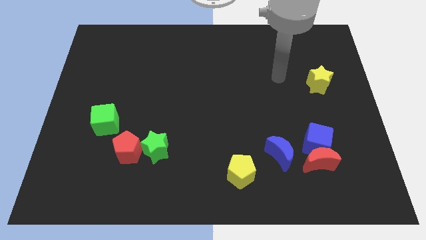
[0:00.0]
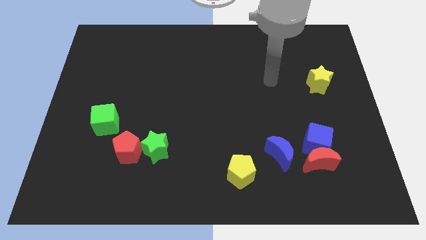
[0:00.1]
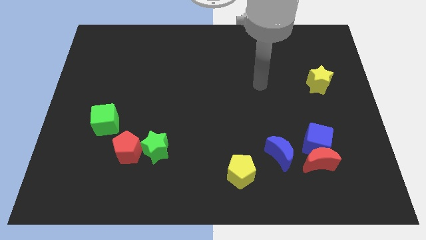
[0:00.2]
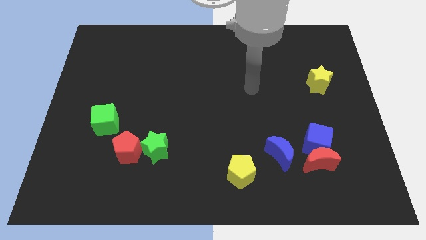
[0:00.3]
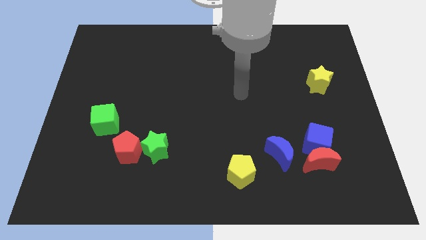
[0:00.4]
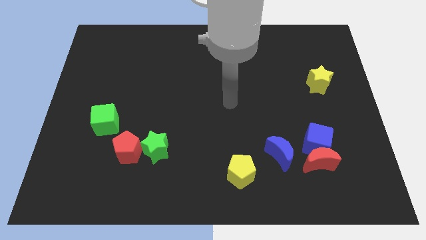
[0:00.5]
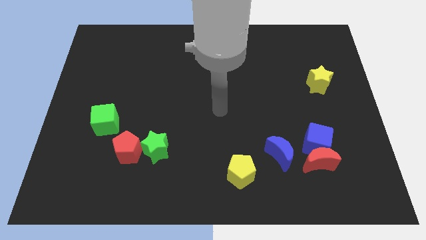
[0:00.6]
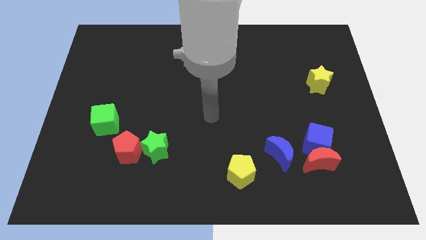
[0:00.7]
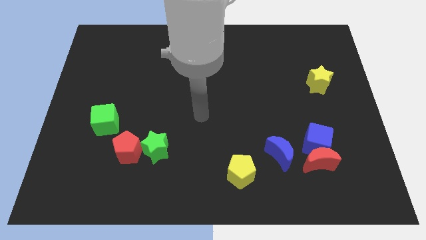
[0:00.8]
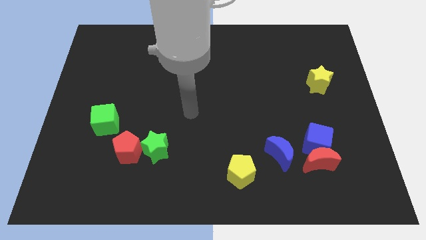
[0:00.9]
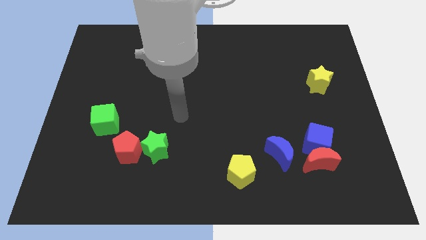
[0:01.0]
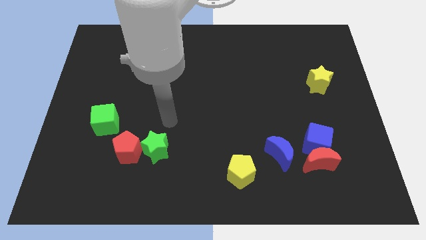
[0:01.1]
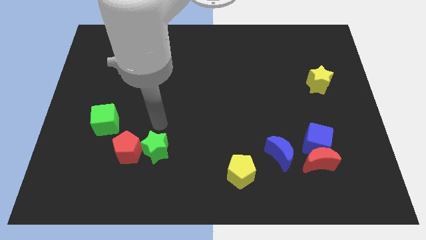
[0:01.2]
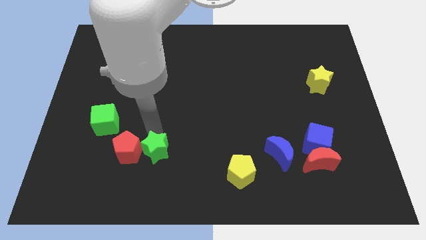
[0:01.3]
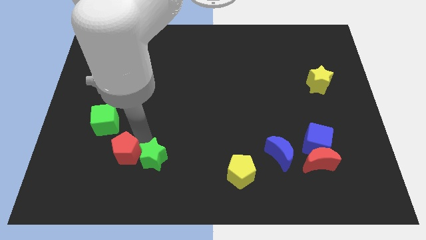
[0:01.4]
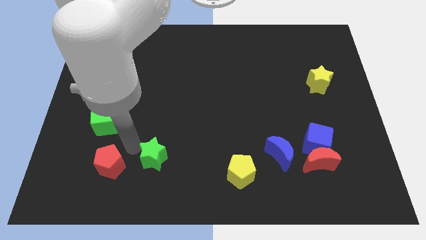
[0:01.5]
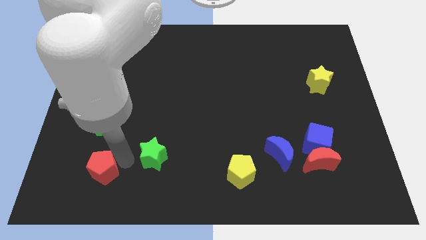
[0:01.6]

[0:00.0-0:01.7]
move the green star away from the red pentagon

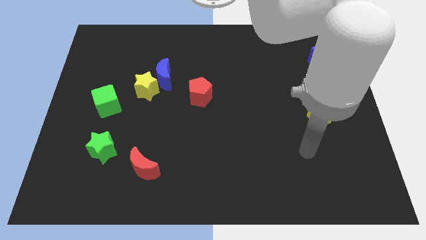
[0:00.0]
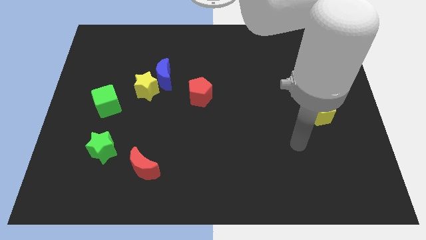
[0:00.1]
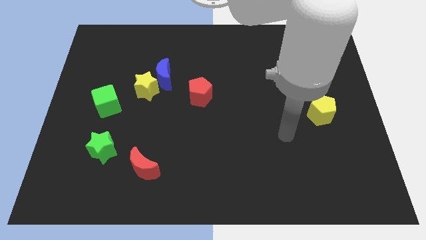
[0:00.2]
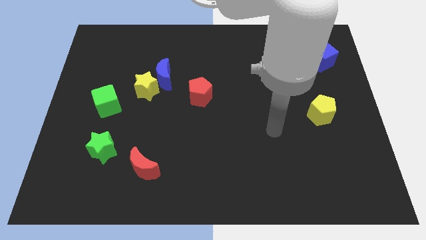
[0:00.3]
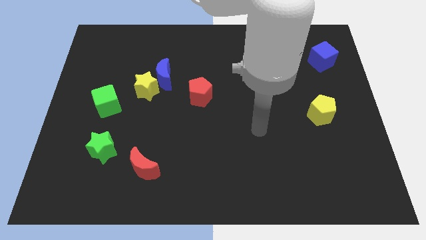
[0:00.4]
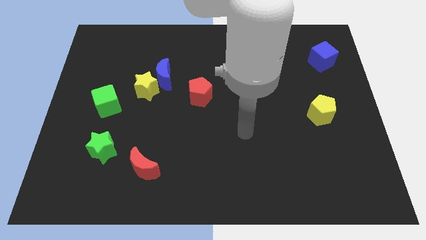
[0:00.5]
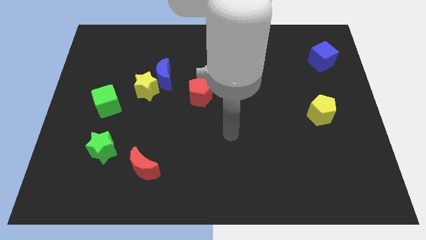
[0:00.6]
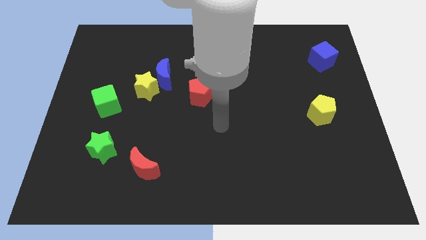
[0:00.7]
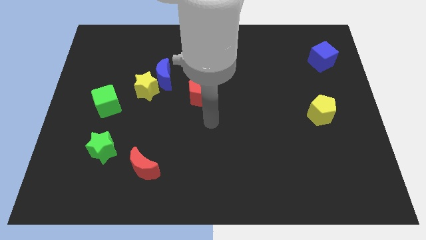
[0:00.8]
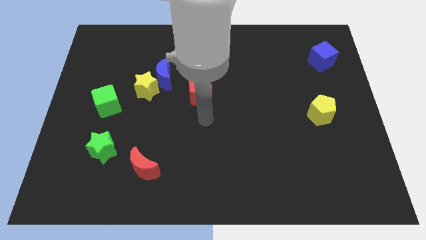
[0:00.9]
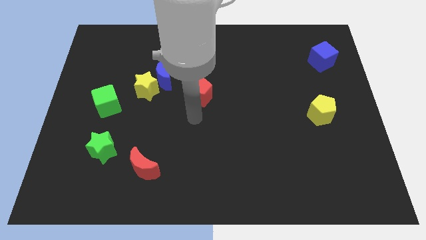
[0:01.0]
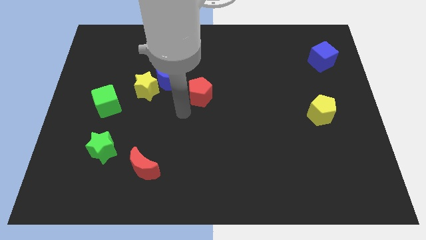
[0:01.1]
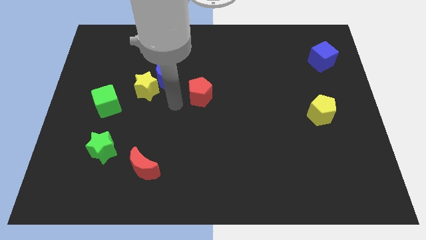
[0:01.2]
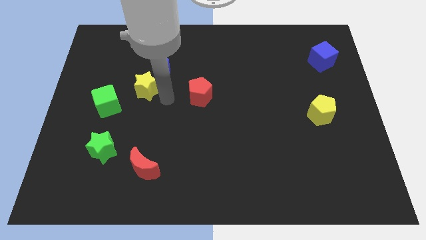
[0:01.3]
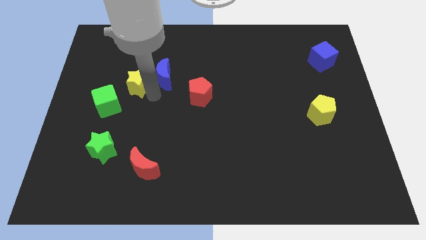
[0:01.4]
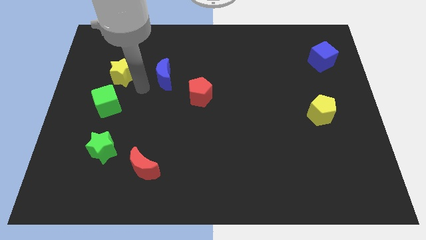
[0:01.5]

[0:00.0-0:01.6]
move the blue moon away from the yellow star

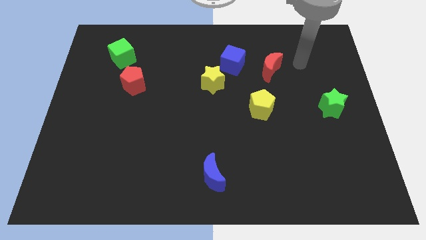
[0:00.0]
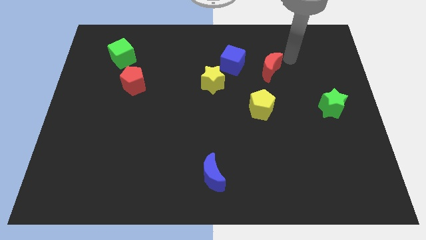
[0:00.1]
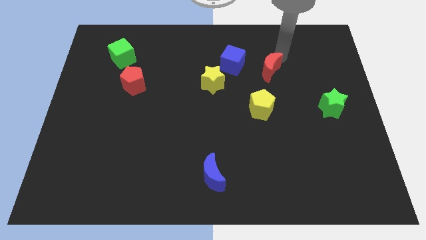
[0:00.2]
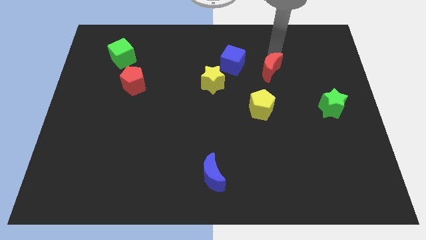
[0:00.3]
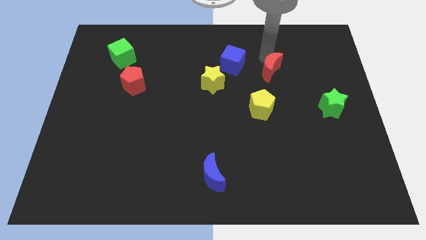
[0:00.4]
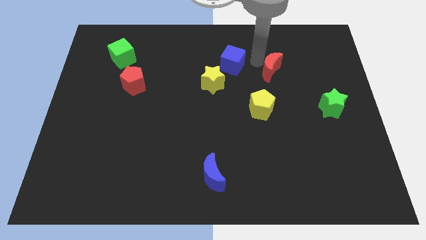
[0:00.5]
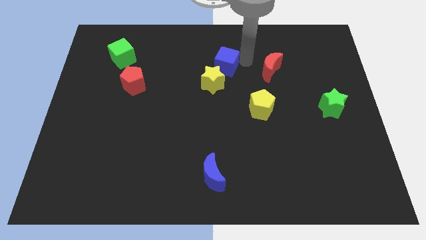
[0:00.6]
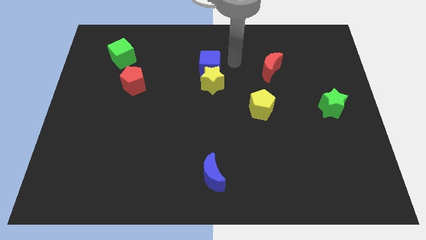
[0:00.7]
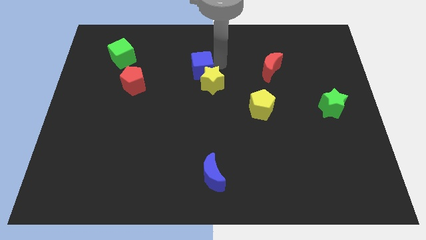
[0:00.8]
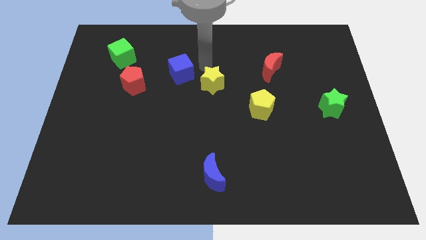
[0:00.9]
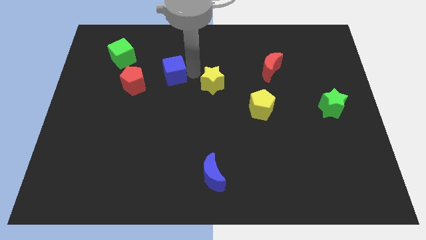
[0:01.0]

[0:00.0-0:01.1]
separate the yellow star from the blue cube

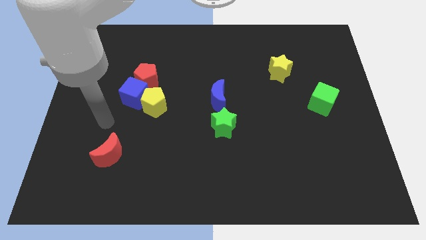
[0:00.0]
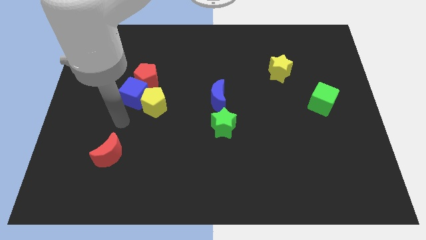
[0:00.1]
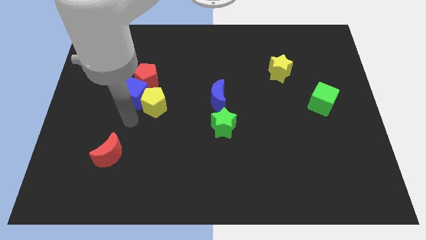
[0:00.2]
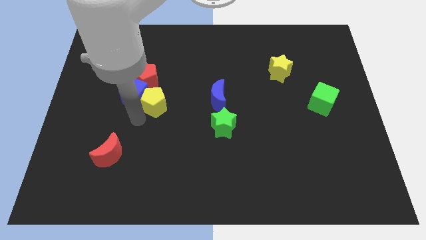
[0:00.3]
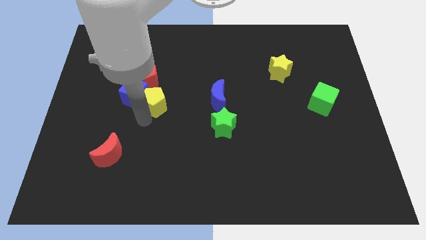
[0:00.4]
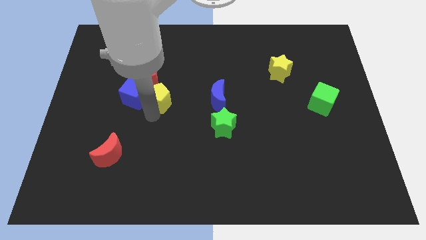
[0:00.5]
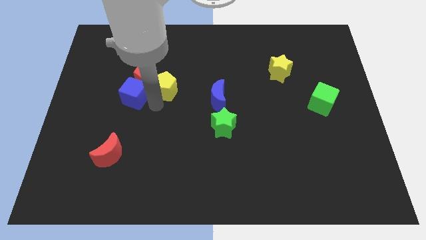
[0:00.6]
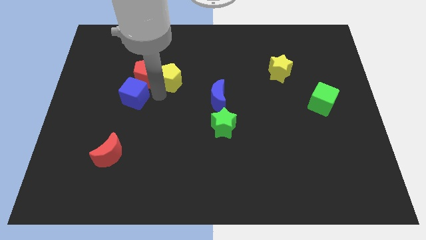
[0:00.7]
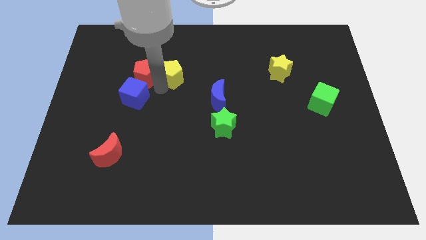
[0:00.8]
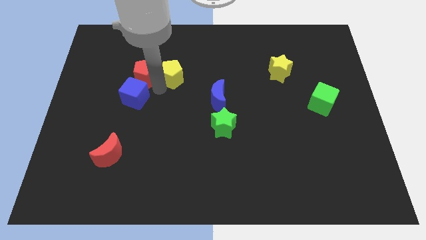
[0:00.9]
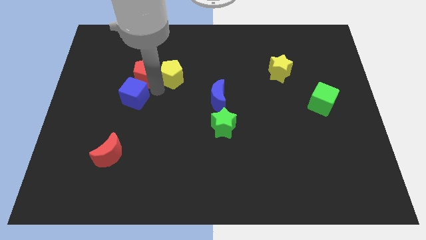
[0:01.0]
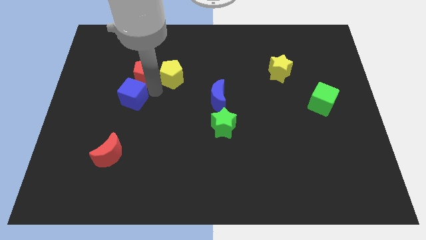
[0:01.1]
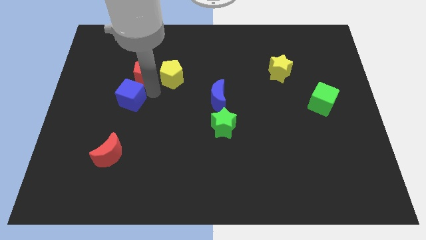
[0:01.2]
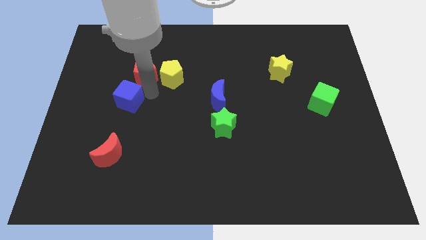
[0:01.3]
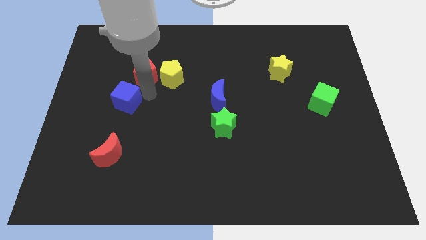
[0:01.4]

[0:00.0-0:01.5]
separate the blue cube from the yellow pentagon and red pentagon

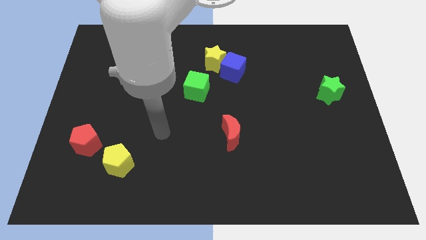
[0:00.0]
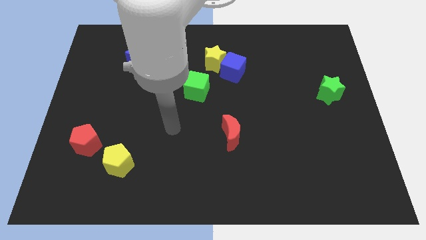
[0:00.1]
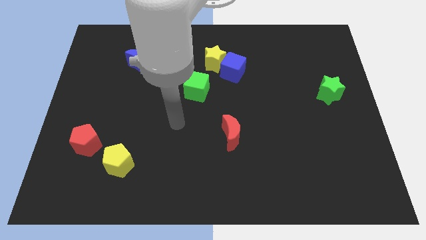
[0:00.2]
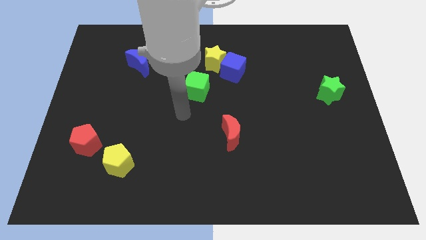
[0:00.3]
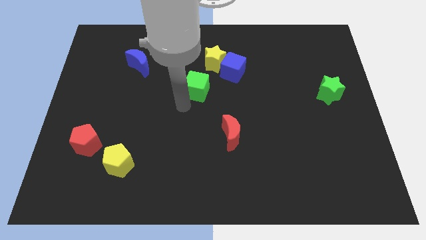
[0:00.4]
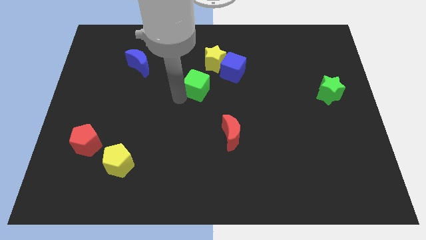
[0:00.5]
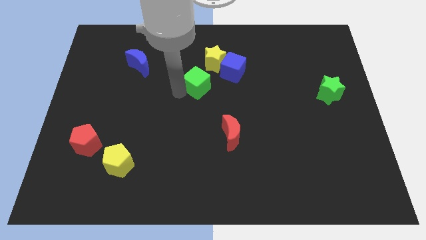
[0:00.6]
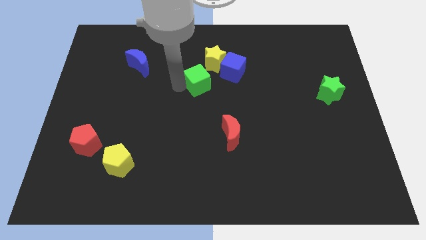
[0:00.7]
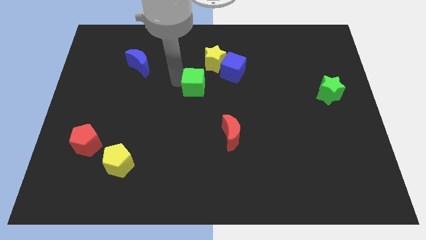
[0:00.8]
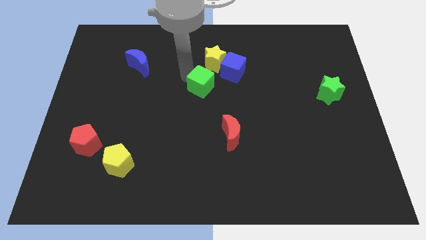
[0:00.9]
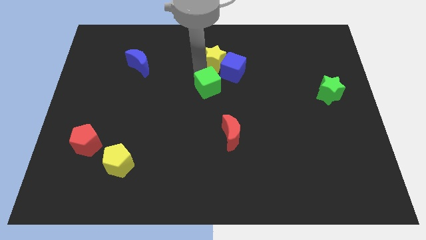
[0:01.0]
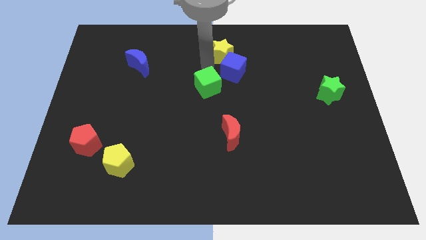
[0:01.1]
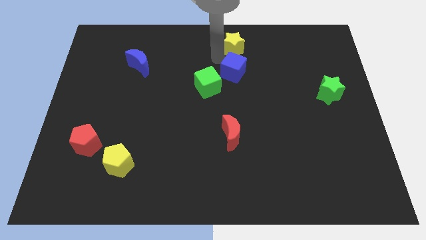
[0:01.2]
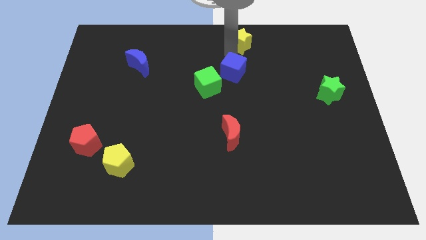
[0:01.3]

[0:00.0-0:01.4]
separate the blue cube from the yellow star

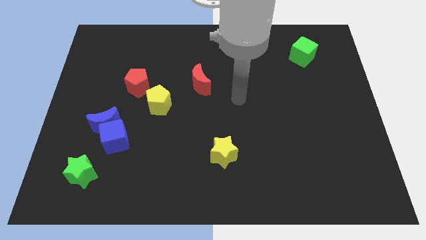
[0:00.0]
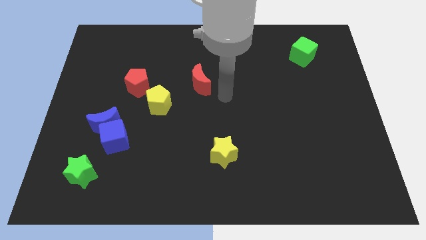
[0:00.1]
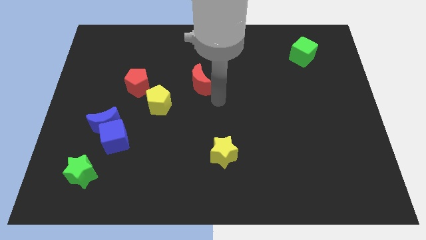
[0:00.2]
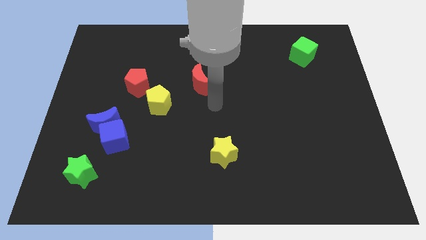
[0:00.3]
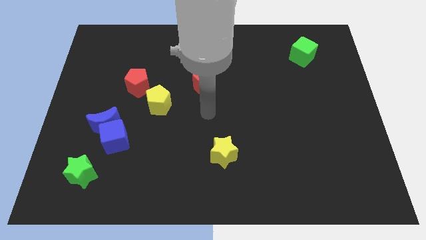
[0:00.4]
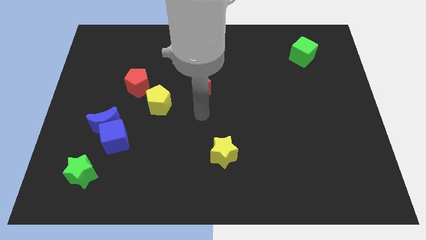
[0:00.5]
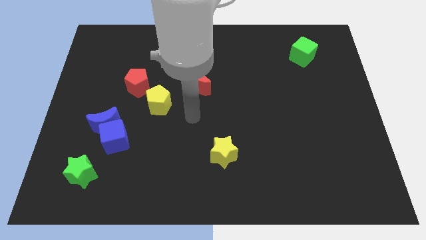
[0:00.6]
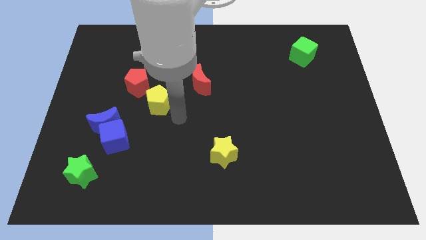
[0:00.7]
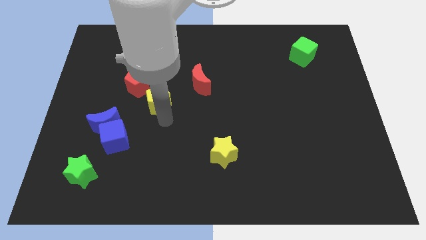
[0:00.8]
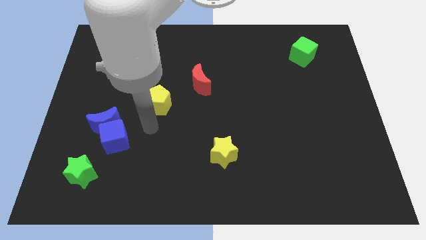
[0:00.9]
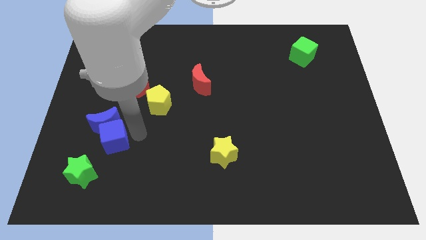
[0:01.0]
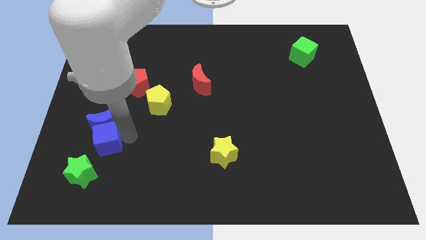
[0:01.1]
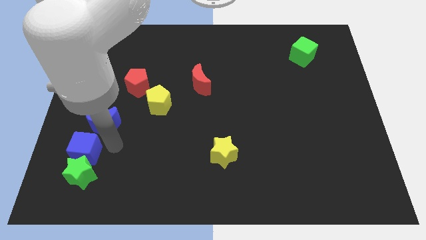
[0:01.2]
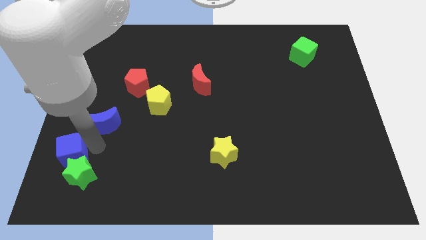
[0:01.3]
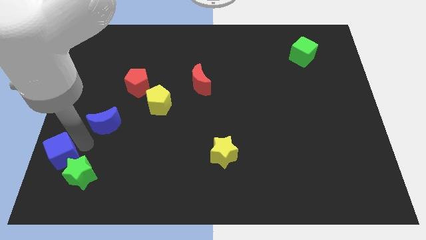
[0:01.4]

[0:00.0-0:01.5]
separate the blue moon from the blue cube

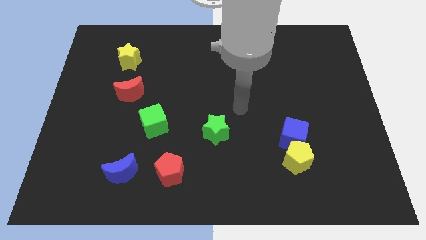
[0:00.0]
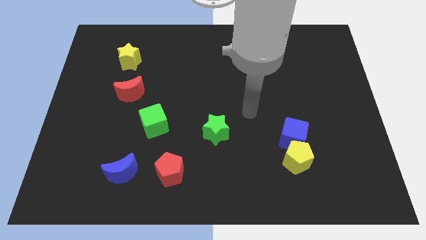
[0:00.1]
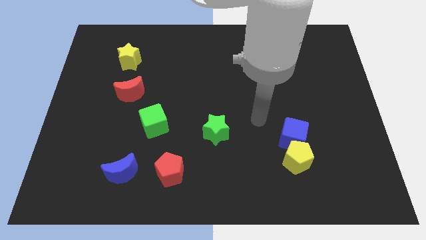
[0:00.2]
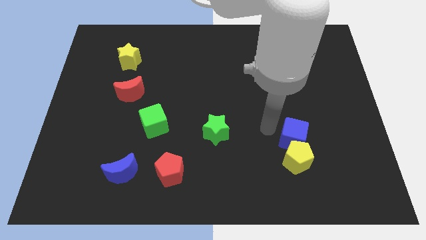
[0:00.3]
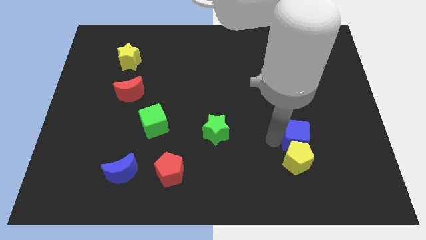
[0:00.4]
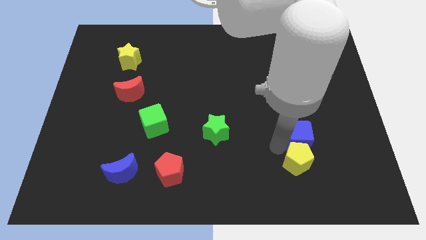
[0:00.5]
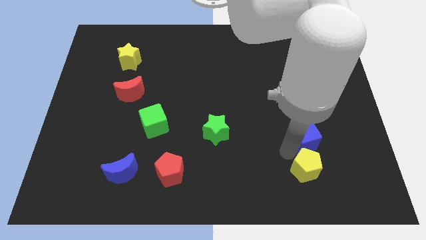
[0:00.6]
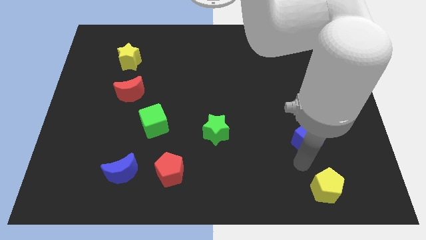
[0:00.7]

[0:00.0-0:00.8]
separate the blue cube from the yellow pentagon
